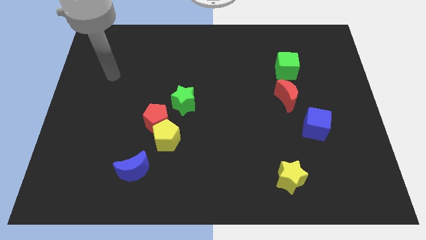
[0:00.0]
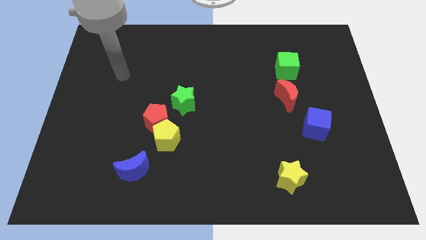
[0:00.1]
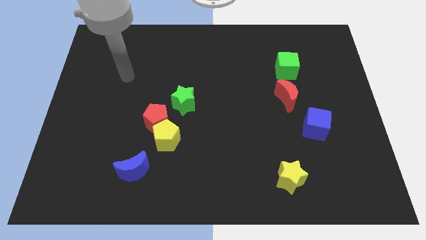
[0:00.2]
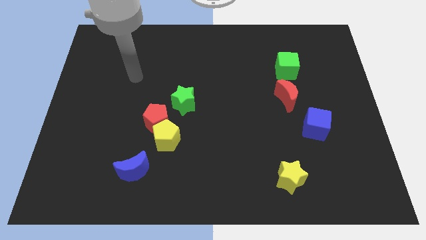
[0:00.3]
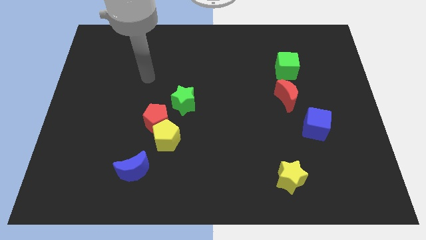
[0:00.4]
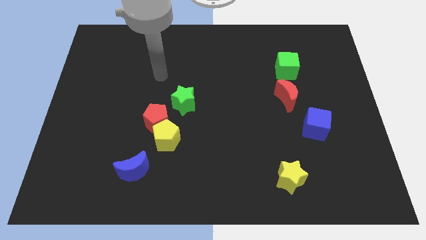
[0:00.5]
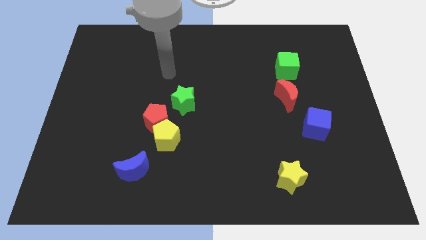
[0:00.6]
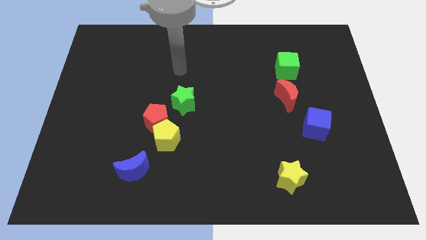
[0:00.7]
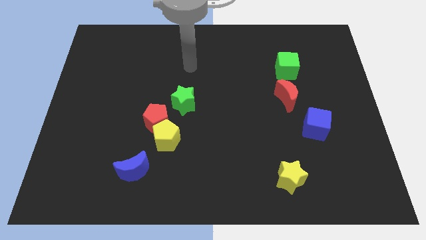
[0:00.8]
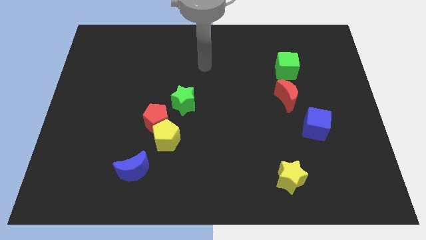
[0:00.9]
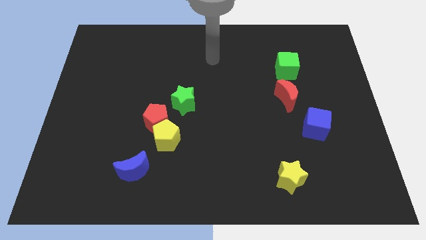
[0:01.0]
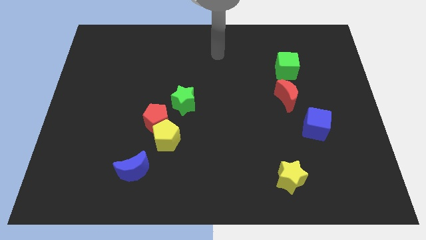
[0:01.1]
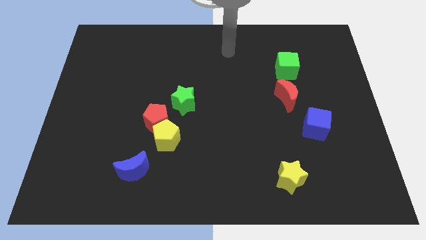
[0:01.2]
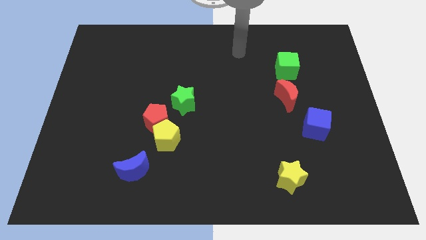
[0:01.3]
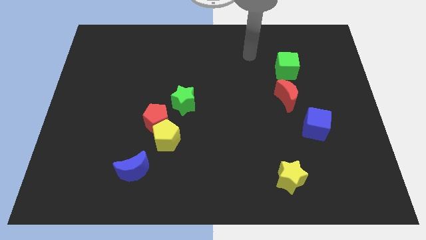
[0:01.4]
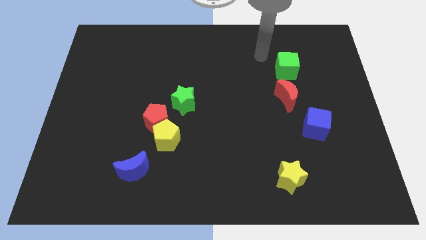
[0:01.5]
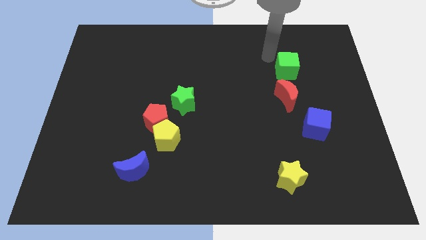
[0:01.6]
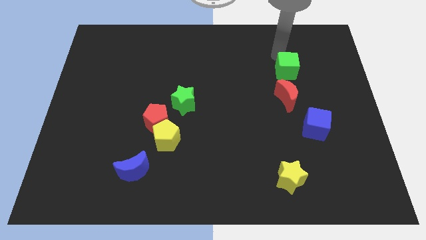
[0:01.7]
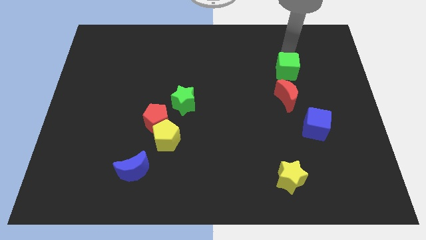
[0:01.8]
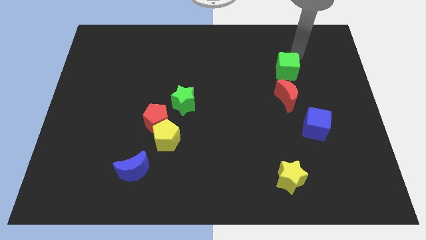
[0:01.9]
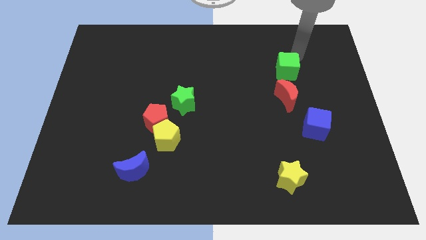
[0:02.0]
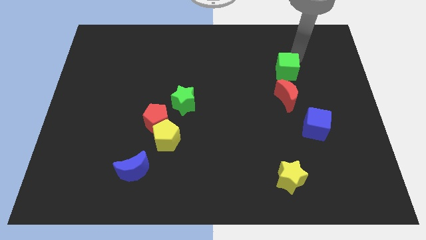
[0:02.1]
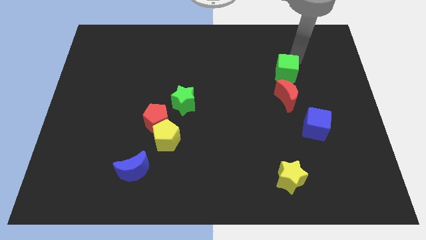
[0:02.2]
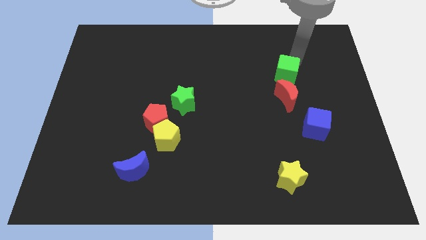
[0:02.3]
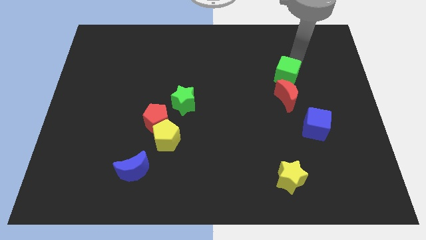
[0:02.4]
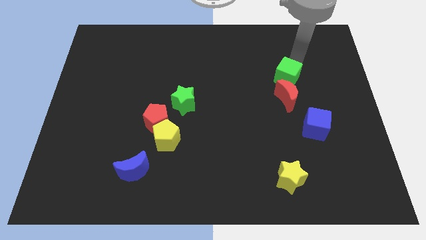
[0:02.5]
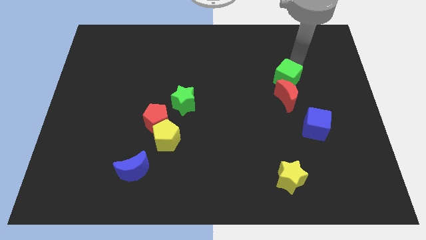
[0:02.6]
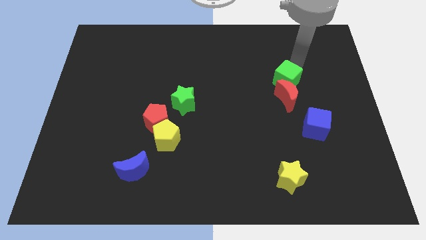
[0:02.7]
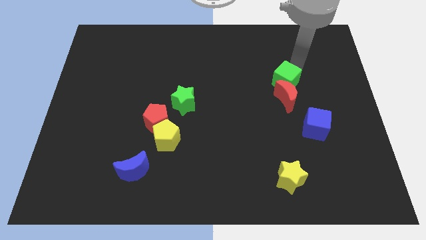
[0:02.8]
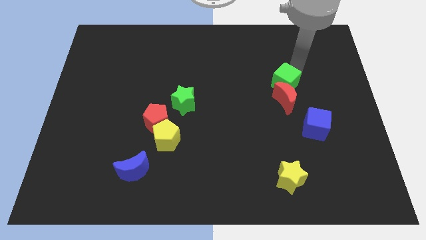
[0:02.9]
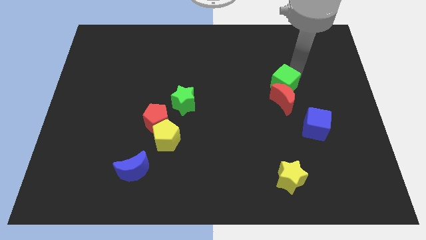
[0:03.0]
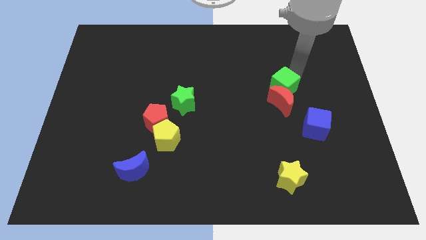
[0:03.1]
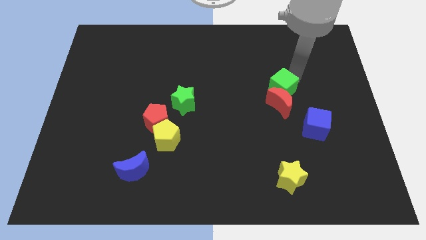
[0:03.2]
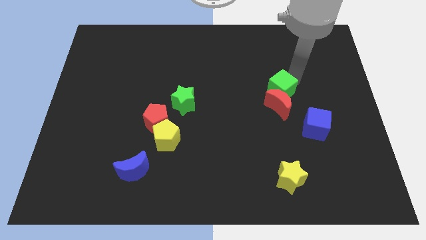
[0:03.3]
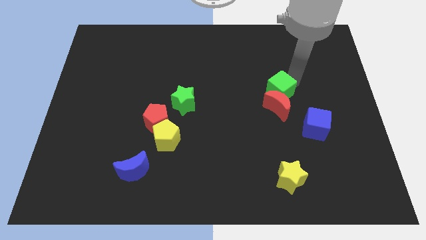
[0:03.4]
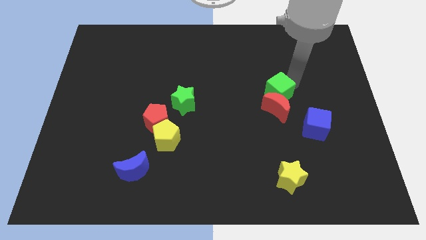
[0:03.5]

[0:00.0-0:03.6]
slide the green cube slightly down and left diagonally

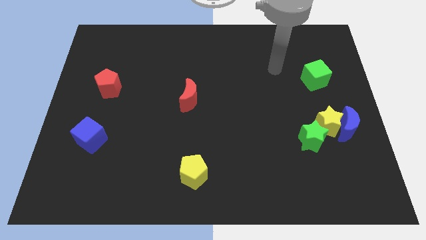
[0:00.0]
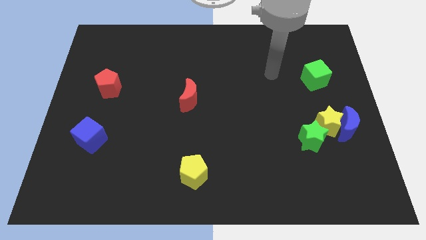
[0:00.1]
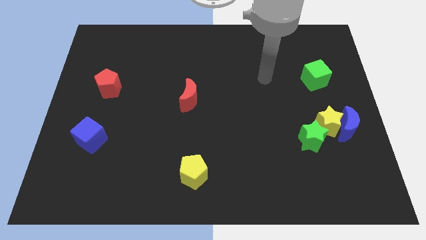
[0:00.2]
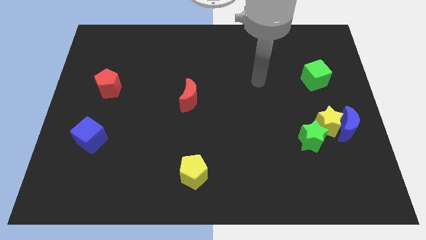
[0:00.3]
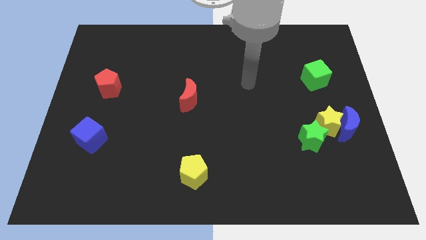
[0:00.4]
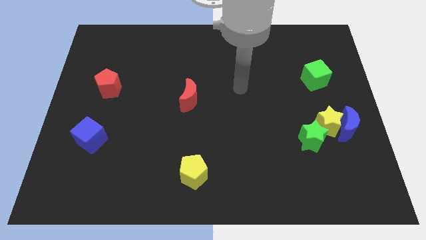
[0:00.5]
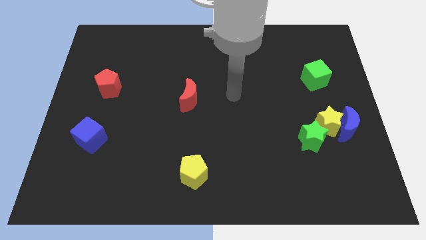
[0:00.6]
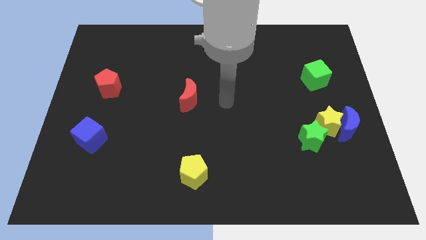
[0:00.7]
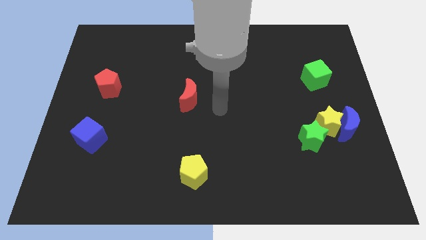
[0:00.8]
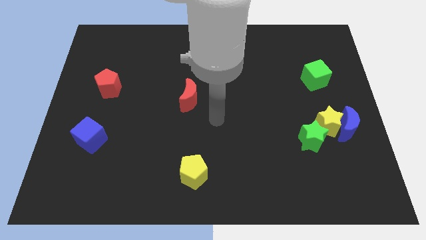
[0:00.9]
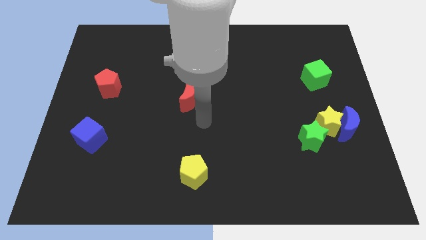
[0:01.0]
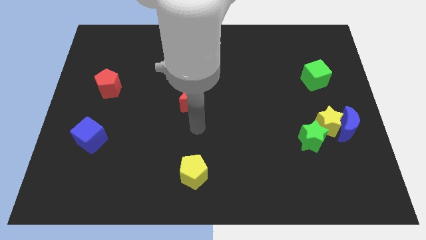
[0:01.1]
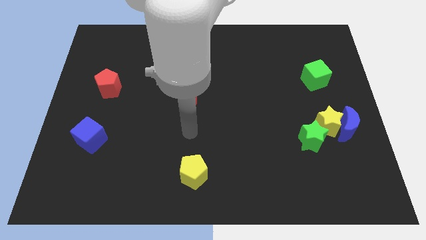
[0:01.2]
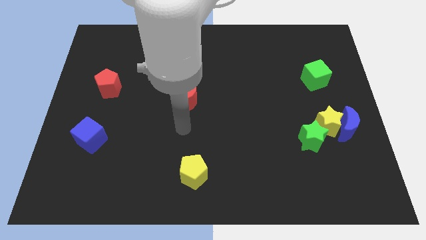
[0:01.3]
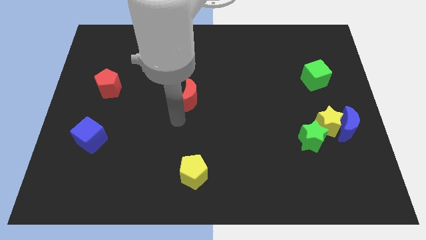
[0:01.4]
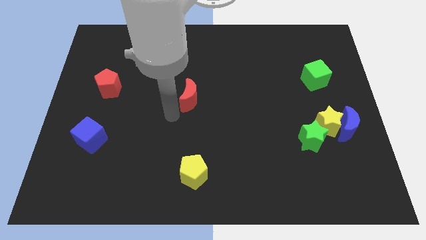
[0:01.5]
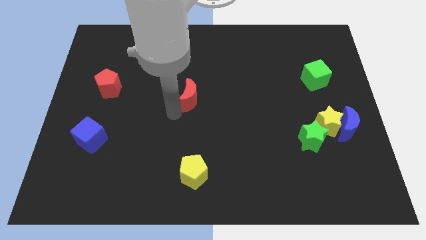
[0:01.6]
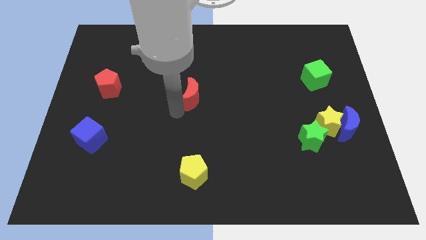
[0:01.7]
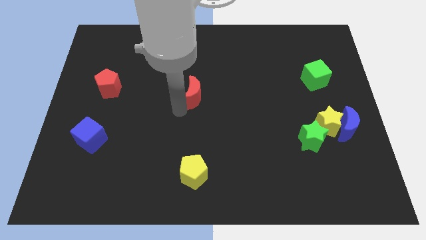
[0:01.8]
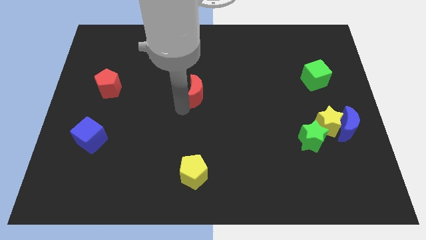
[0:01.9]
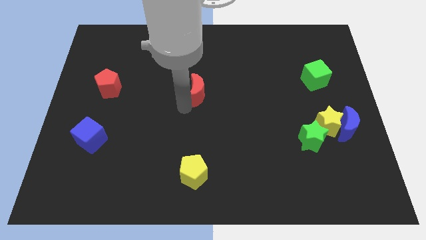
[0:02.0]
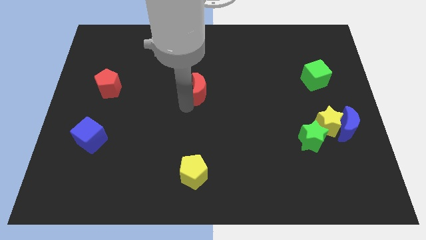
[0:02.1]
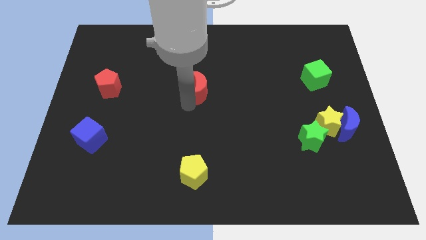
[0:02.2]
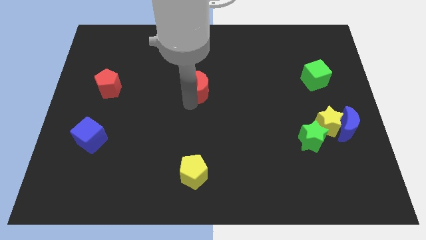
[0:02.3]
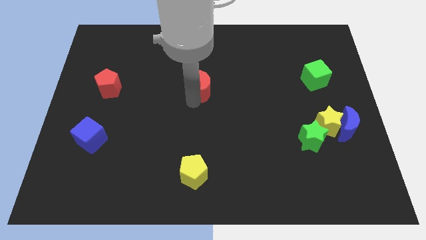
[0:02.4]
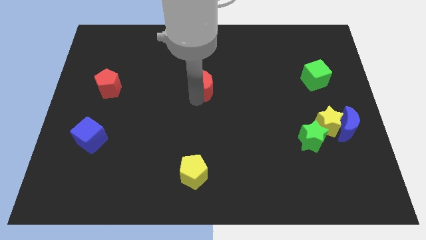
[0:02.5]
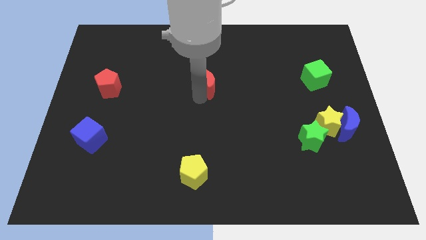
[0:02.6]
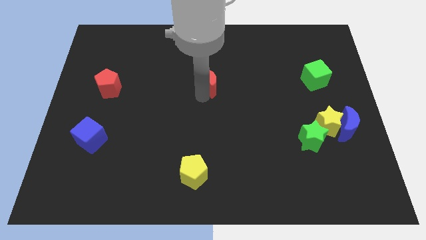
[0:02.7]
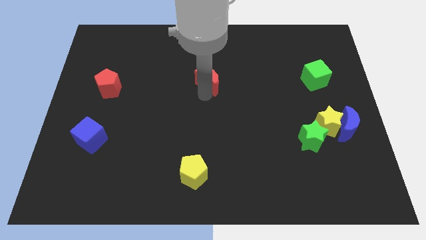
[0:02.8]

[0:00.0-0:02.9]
slide the red moon a bit up and to the right diagonally

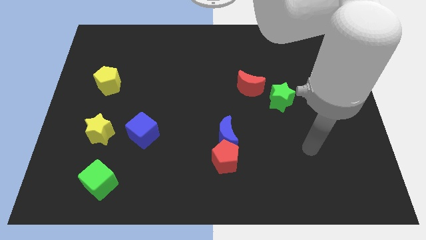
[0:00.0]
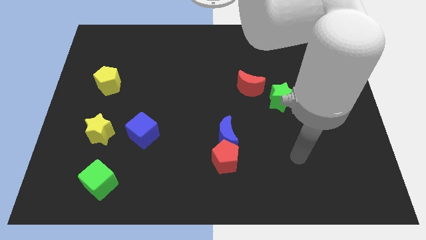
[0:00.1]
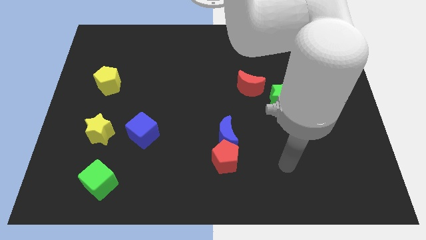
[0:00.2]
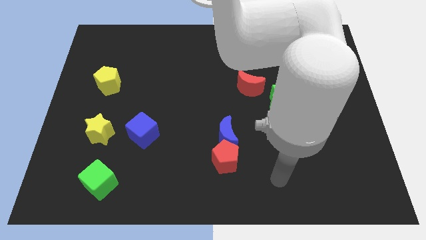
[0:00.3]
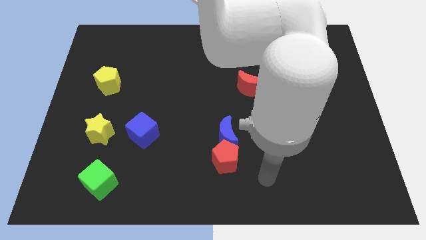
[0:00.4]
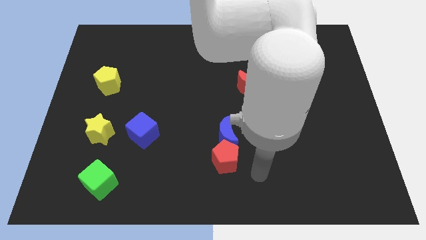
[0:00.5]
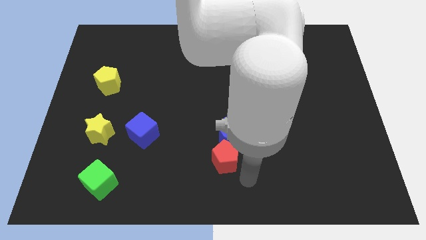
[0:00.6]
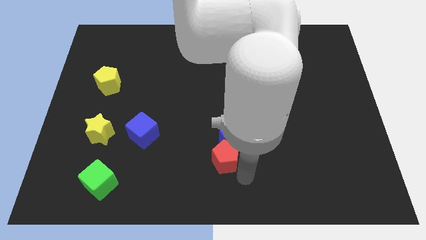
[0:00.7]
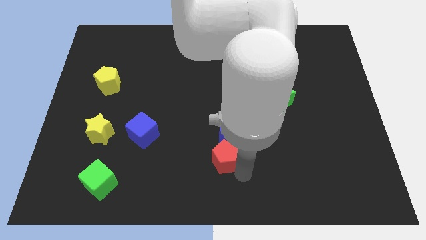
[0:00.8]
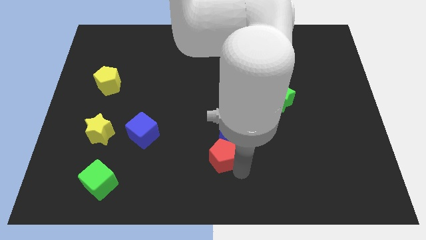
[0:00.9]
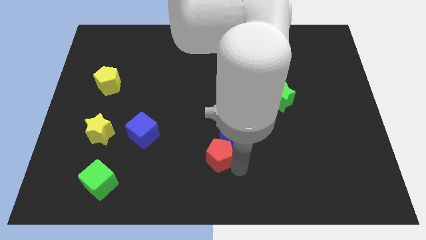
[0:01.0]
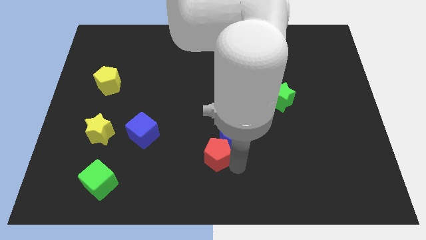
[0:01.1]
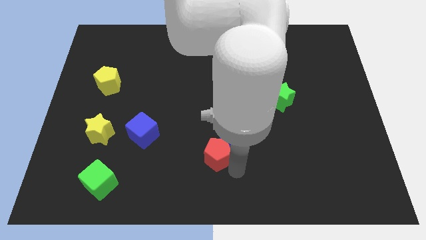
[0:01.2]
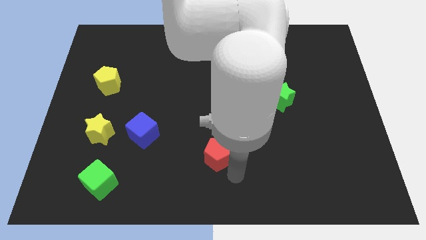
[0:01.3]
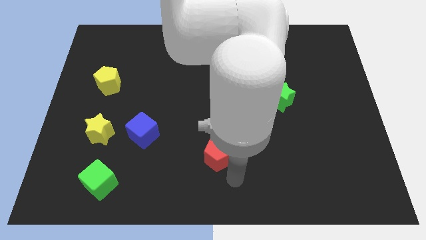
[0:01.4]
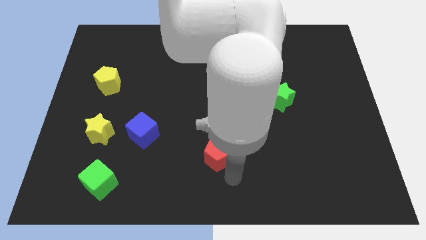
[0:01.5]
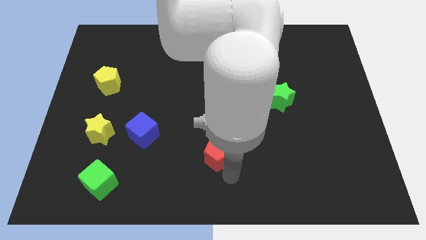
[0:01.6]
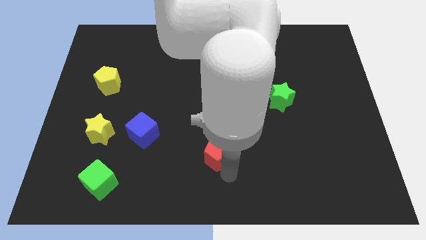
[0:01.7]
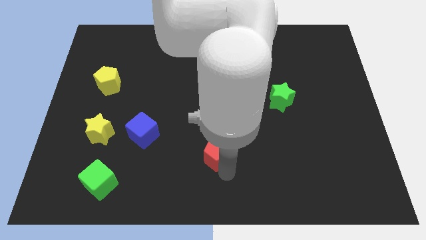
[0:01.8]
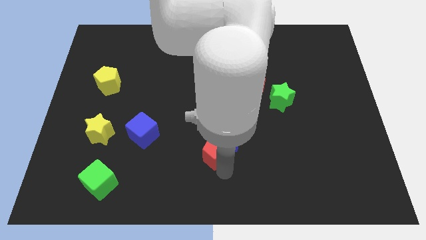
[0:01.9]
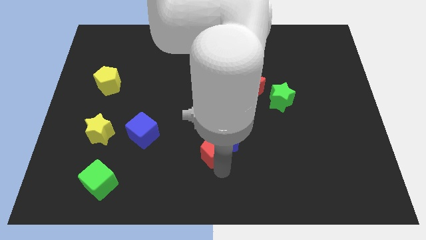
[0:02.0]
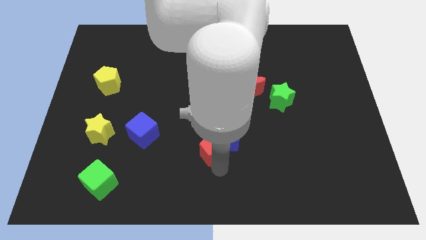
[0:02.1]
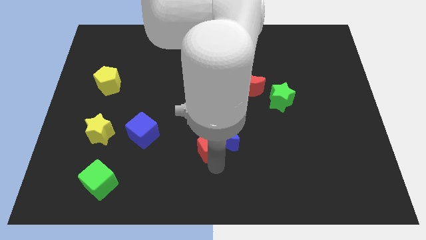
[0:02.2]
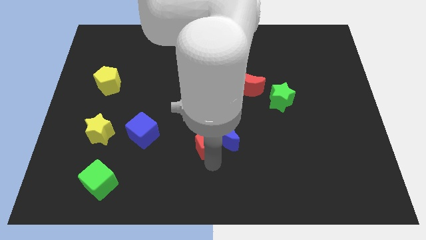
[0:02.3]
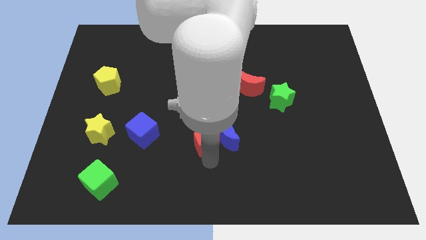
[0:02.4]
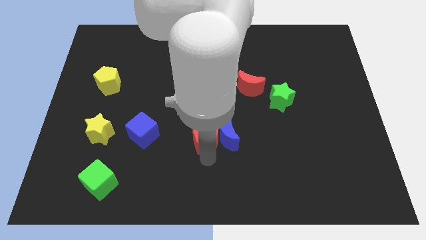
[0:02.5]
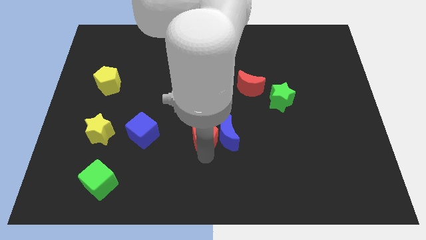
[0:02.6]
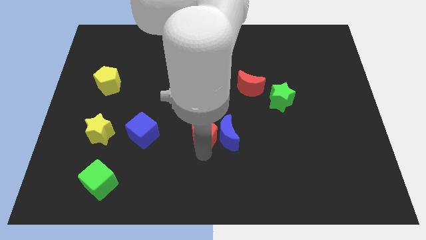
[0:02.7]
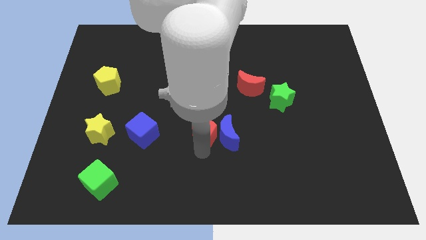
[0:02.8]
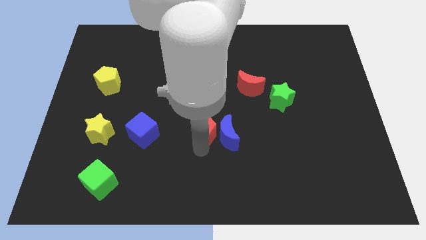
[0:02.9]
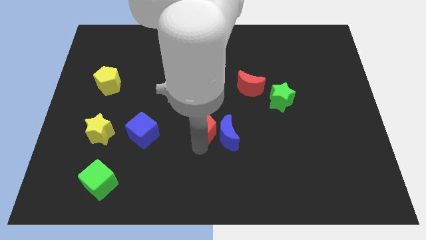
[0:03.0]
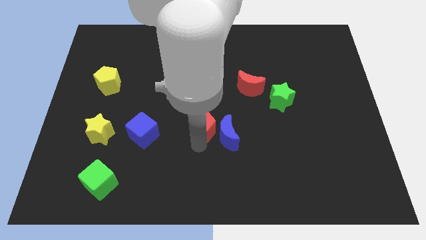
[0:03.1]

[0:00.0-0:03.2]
slightly move the red pentagon upwards
